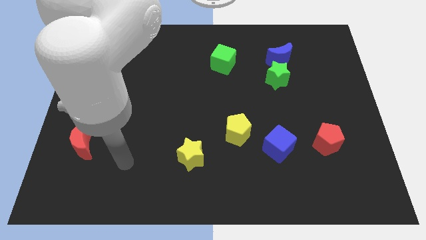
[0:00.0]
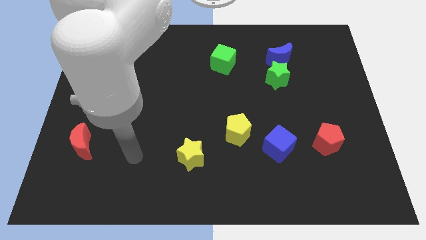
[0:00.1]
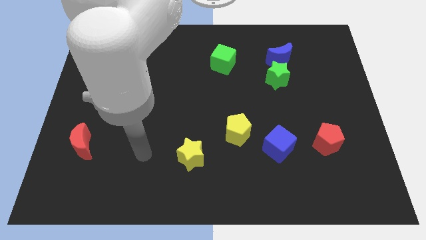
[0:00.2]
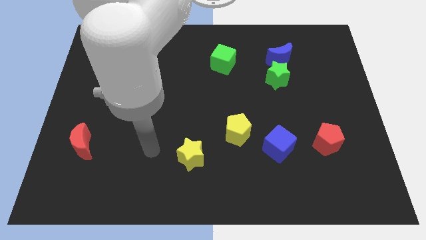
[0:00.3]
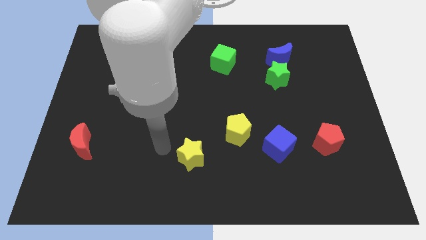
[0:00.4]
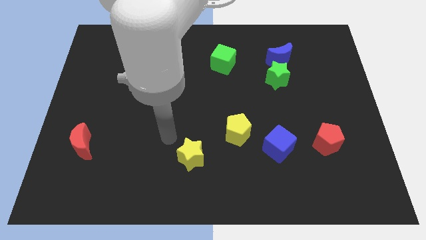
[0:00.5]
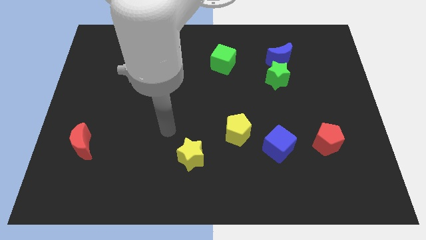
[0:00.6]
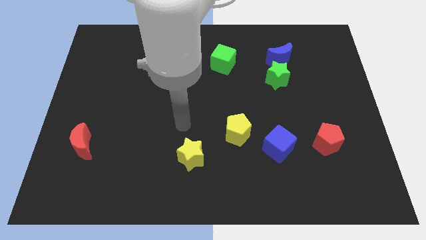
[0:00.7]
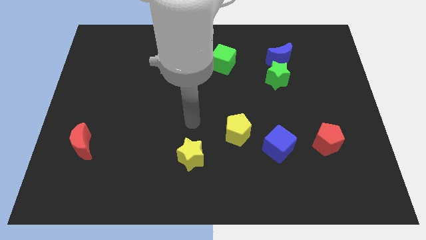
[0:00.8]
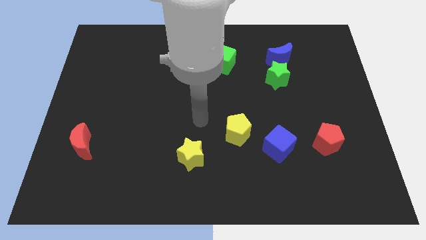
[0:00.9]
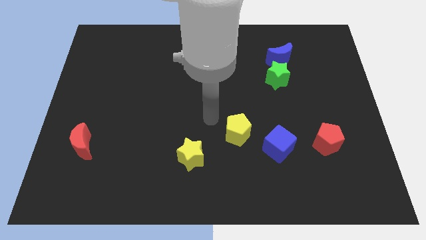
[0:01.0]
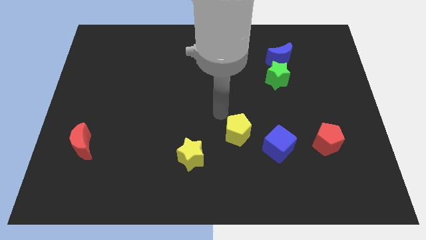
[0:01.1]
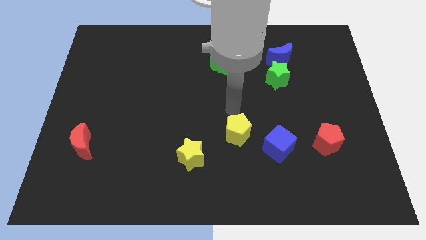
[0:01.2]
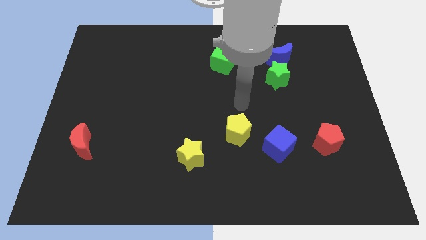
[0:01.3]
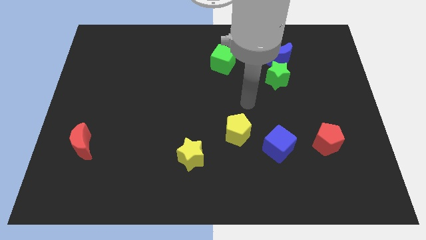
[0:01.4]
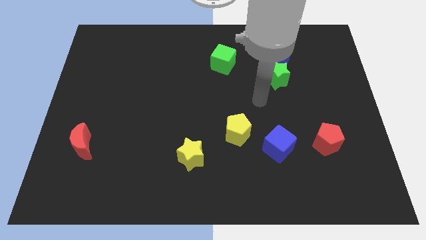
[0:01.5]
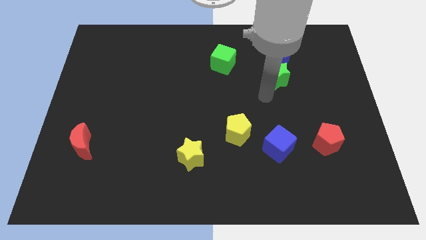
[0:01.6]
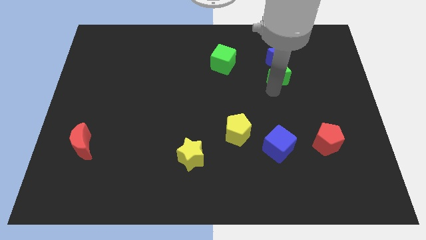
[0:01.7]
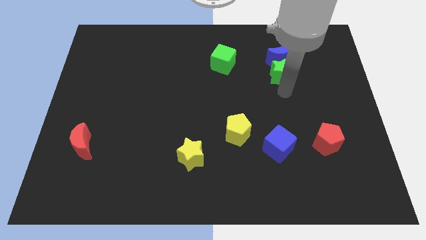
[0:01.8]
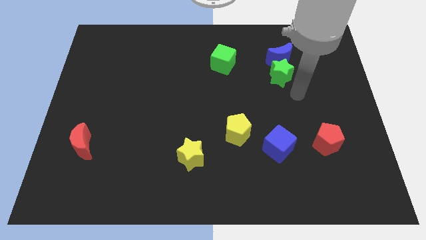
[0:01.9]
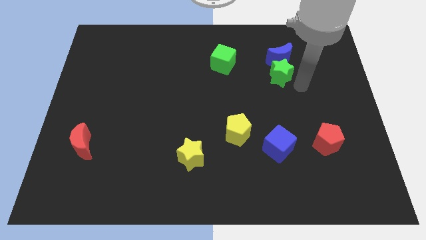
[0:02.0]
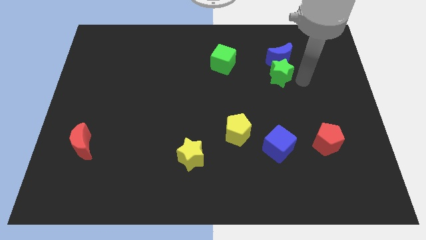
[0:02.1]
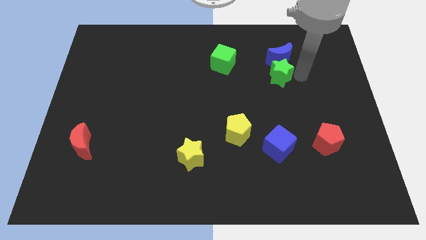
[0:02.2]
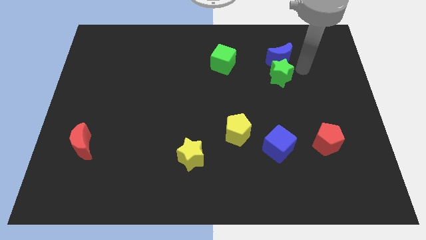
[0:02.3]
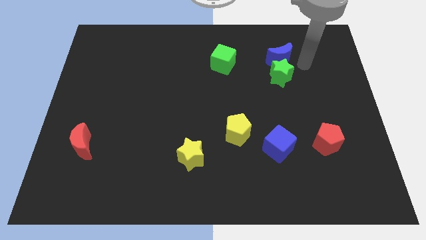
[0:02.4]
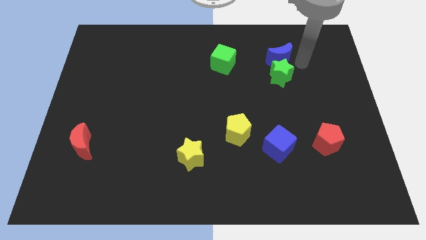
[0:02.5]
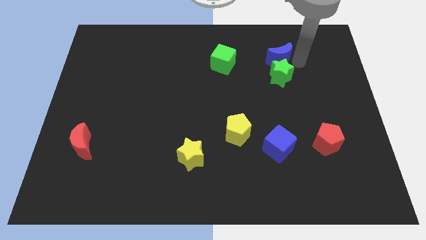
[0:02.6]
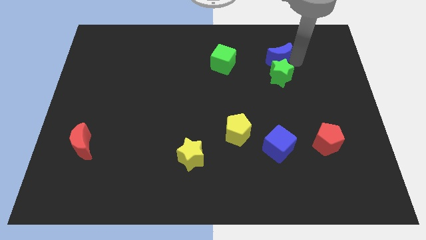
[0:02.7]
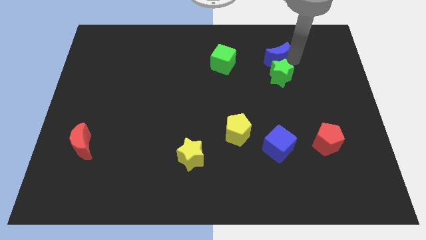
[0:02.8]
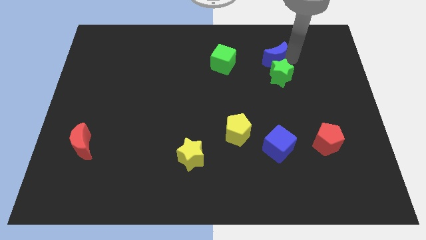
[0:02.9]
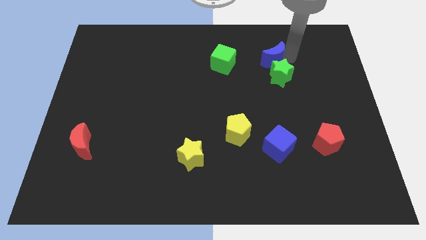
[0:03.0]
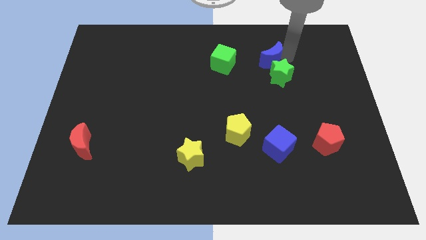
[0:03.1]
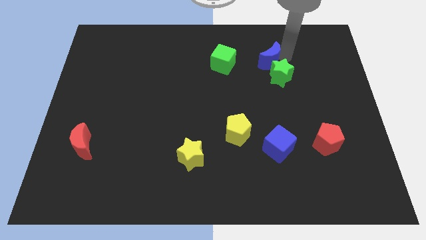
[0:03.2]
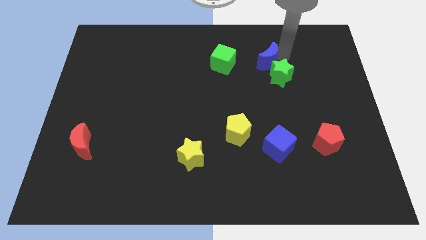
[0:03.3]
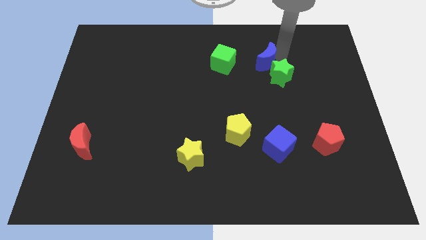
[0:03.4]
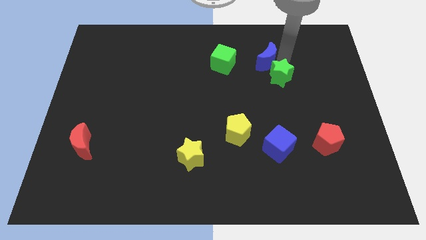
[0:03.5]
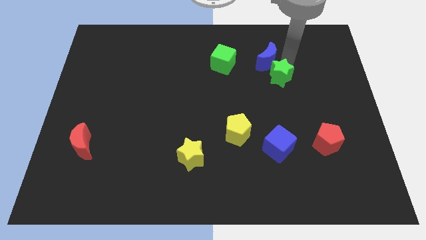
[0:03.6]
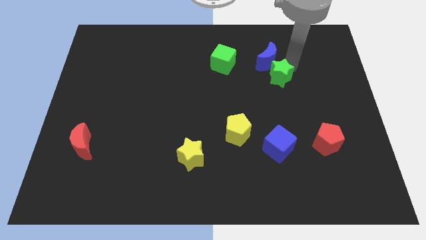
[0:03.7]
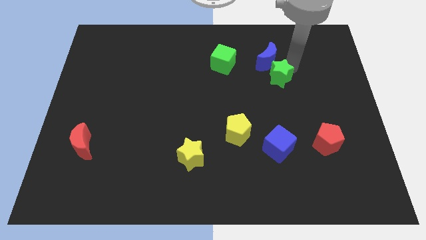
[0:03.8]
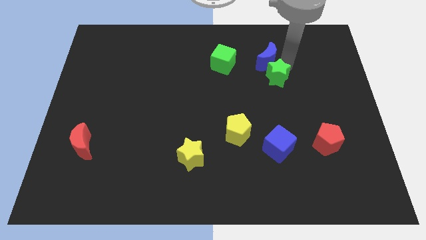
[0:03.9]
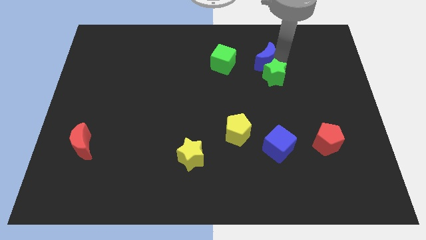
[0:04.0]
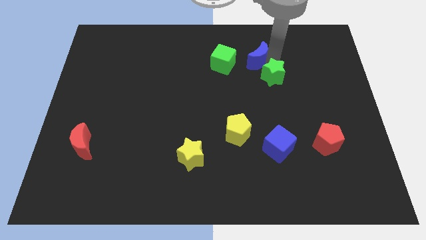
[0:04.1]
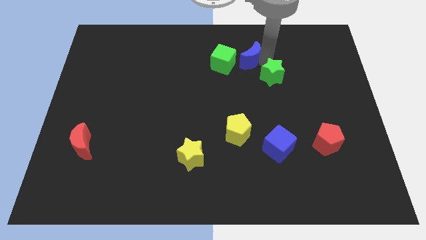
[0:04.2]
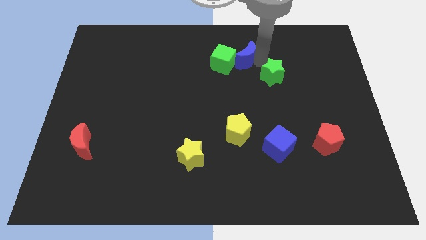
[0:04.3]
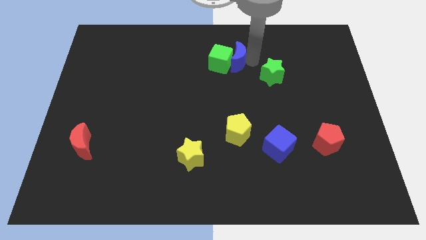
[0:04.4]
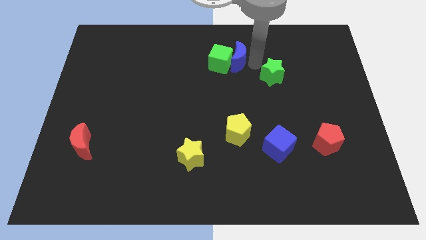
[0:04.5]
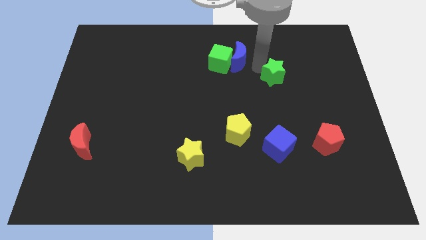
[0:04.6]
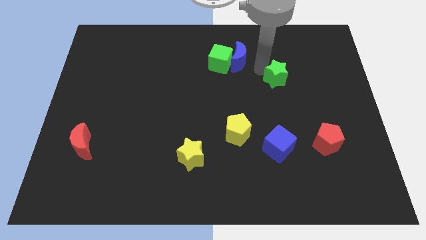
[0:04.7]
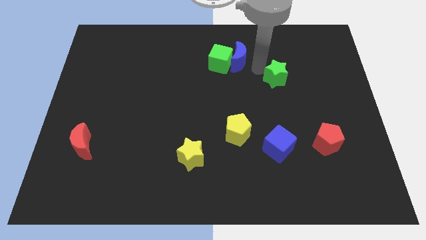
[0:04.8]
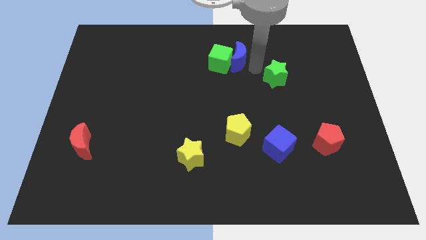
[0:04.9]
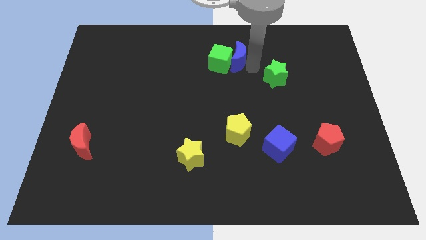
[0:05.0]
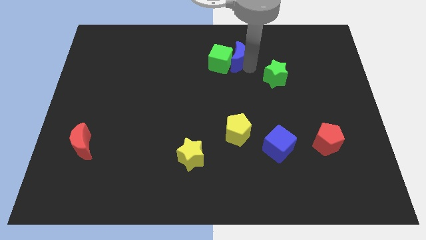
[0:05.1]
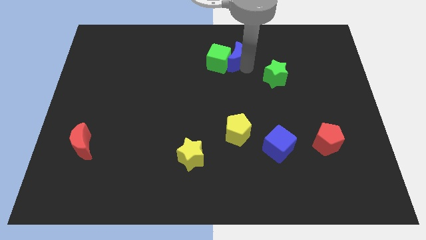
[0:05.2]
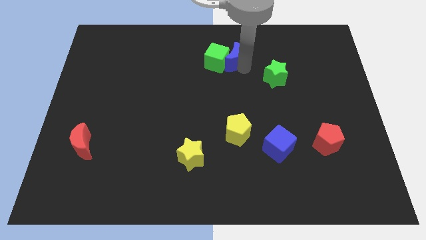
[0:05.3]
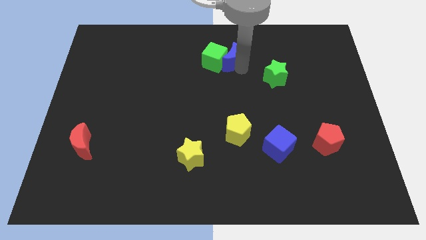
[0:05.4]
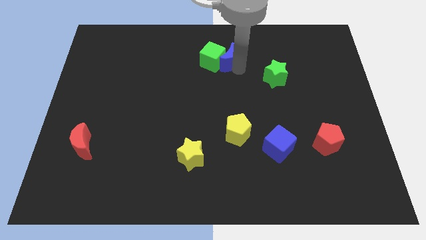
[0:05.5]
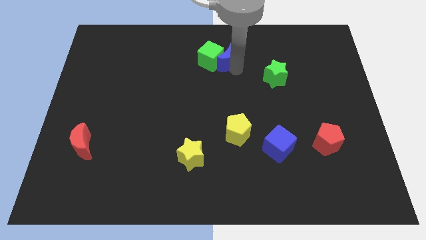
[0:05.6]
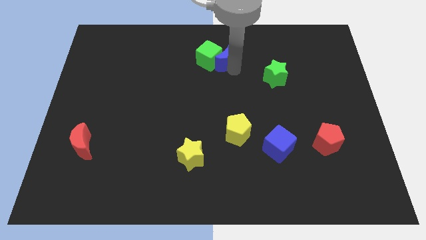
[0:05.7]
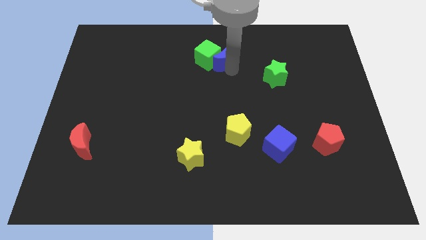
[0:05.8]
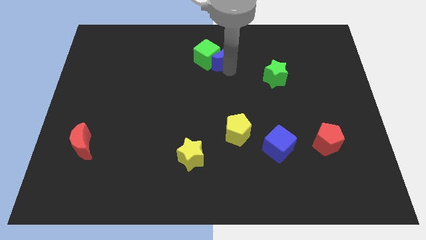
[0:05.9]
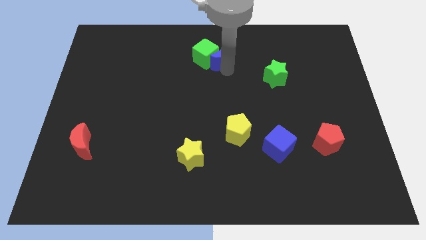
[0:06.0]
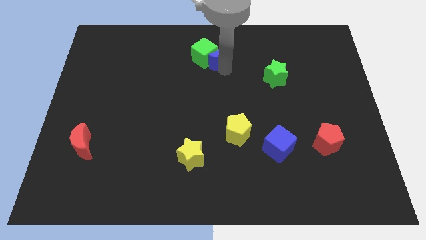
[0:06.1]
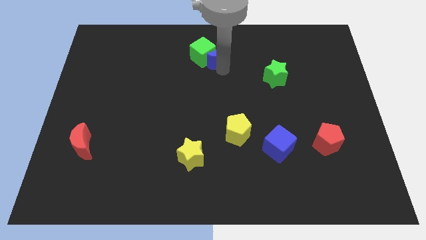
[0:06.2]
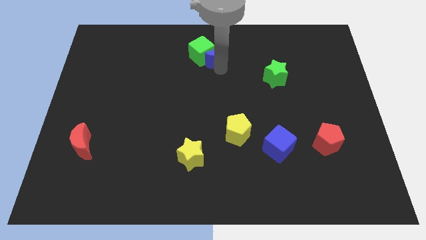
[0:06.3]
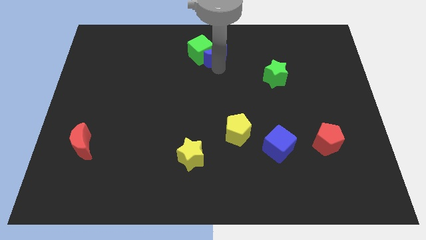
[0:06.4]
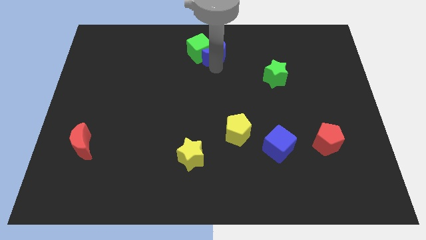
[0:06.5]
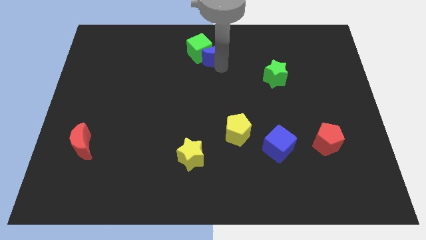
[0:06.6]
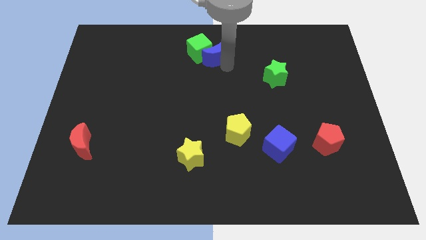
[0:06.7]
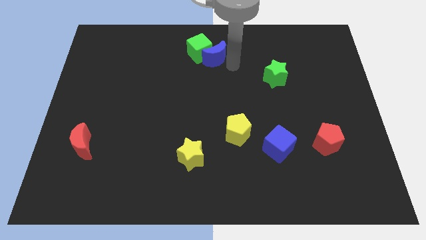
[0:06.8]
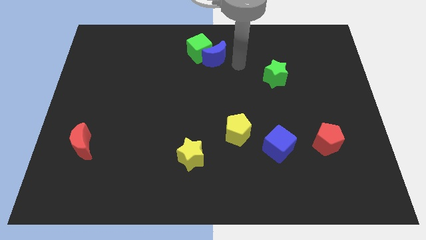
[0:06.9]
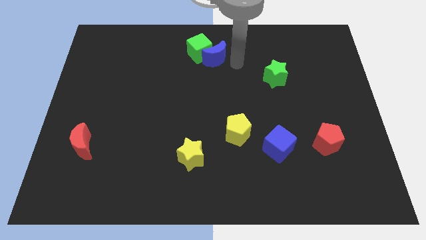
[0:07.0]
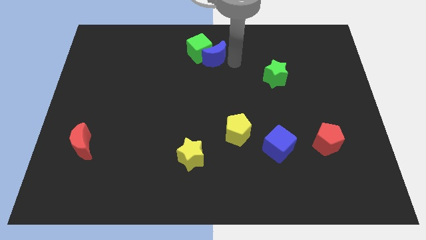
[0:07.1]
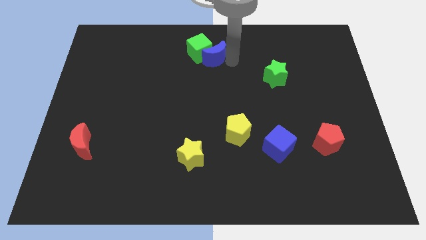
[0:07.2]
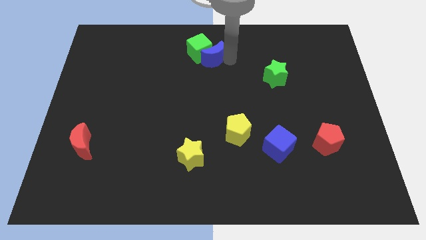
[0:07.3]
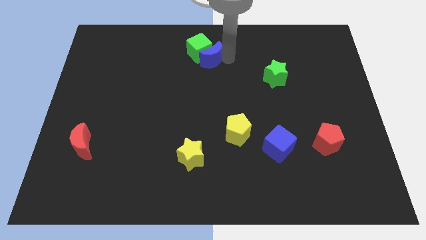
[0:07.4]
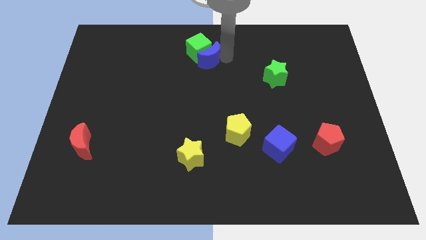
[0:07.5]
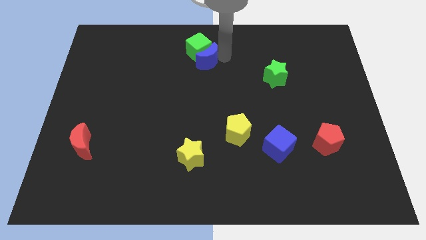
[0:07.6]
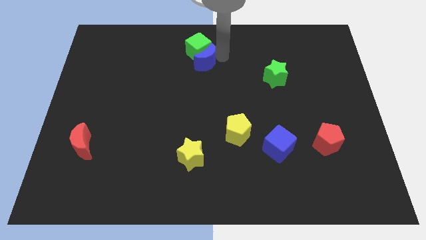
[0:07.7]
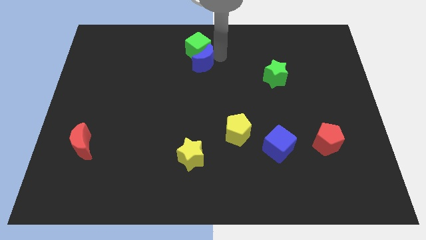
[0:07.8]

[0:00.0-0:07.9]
push the blue moon to the left
